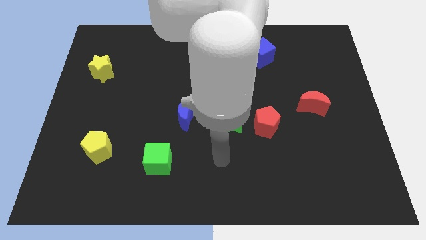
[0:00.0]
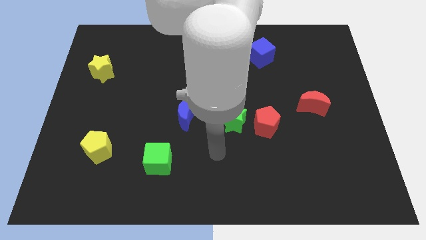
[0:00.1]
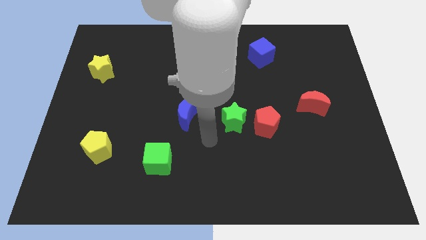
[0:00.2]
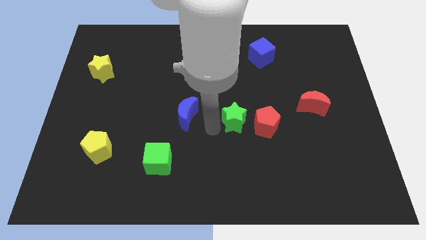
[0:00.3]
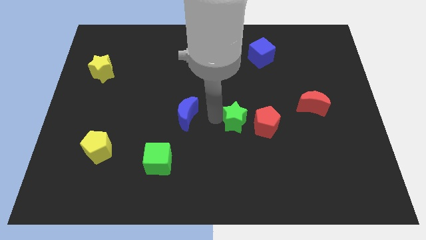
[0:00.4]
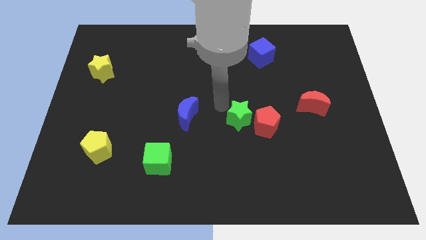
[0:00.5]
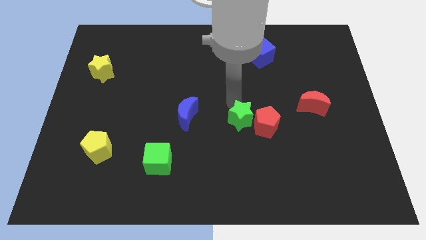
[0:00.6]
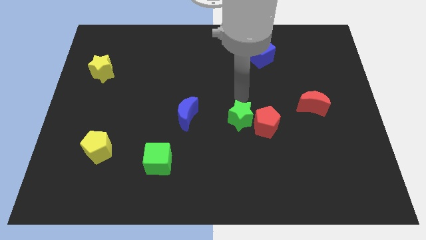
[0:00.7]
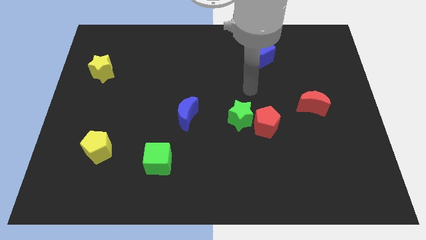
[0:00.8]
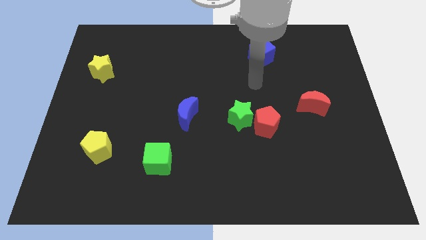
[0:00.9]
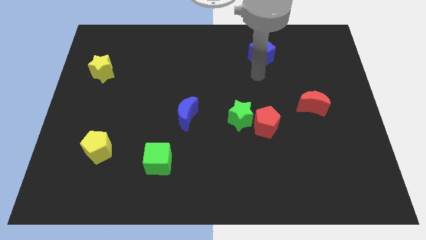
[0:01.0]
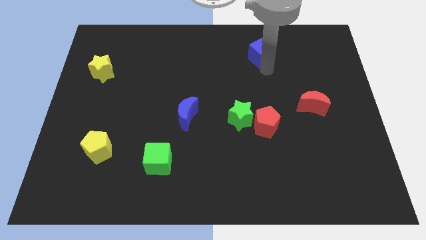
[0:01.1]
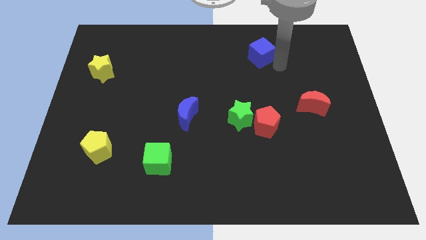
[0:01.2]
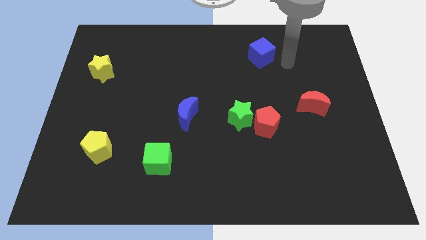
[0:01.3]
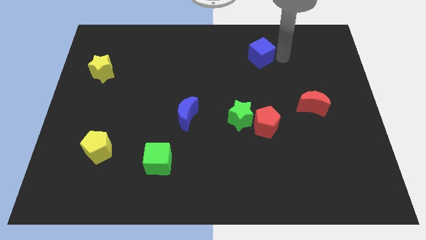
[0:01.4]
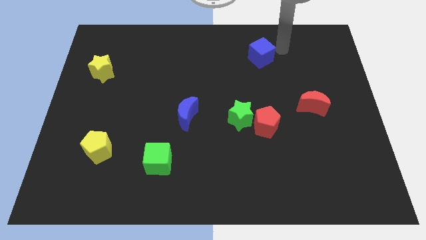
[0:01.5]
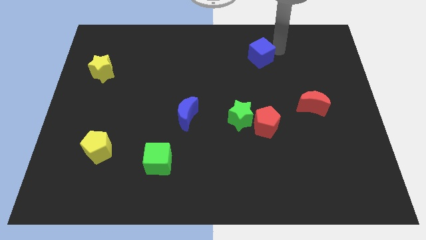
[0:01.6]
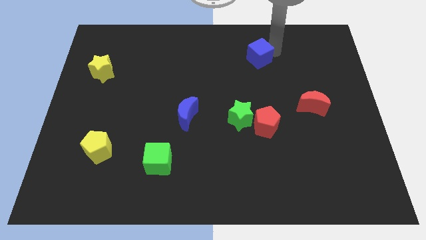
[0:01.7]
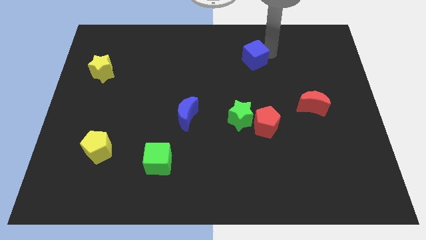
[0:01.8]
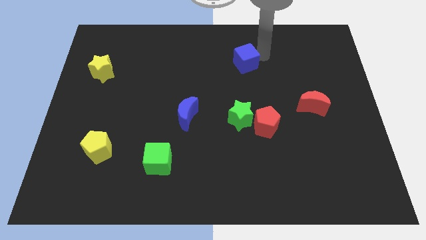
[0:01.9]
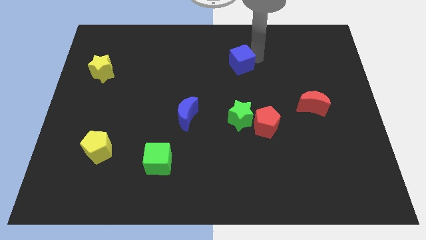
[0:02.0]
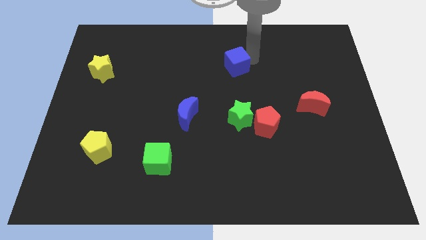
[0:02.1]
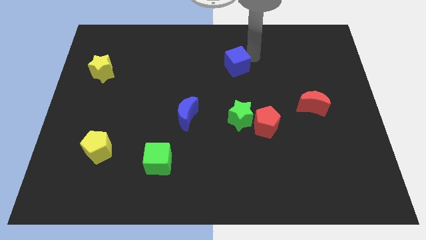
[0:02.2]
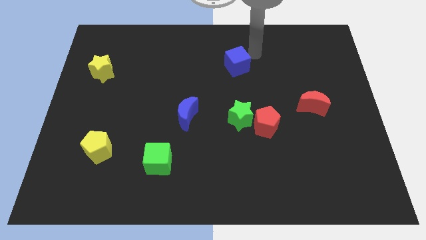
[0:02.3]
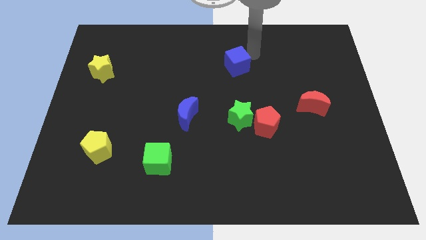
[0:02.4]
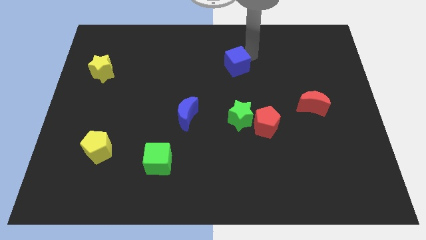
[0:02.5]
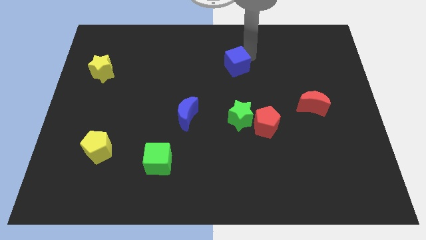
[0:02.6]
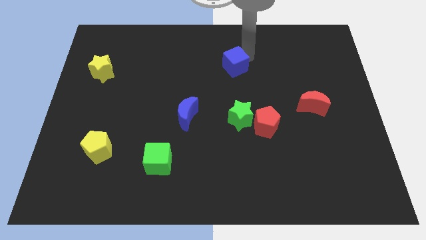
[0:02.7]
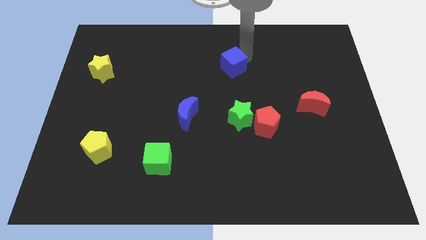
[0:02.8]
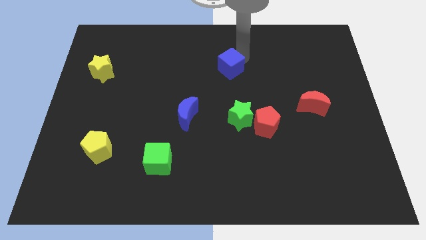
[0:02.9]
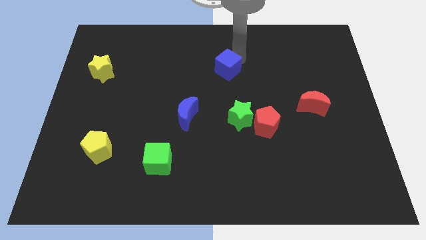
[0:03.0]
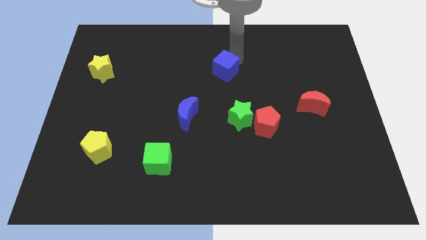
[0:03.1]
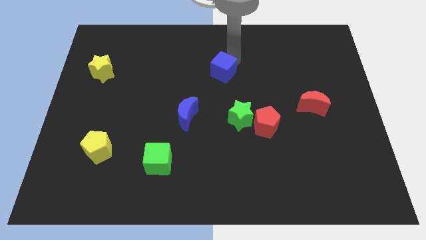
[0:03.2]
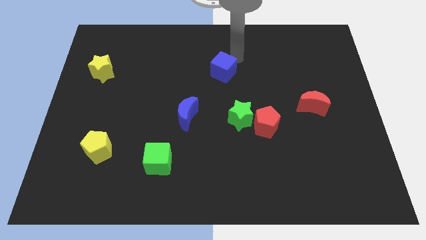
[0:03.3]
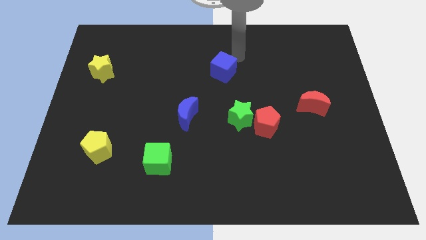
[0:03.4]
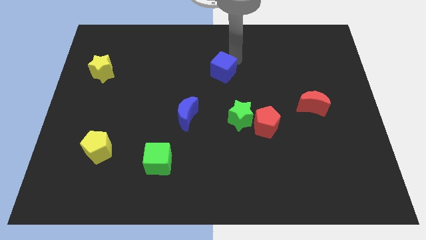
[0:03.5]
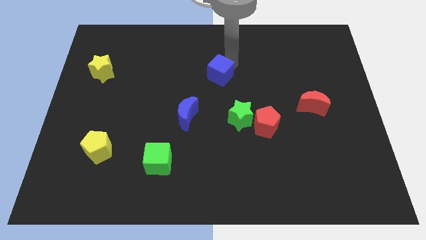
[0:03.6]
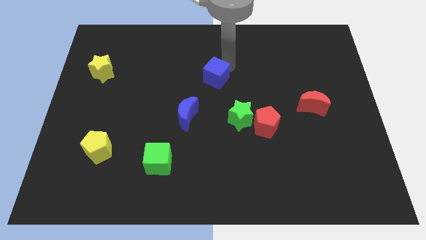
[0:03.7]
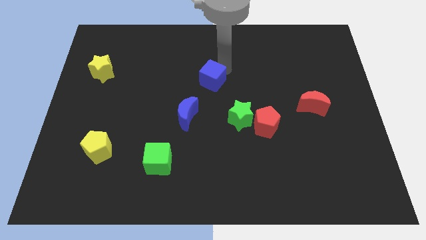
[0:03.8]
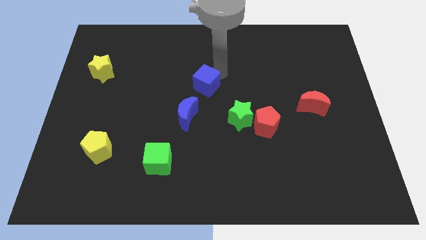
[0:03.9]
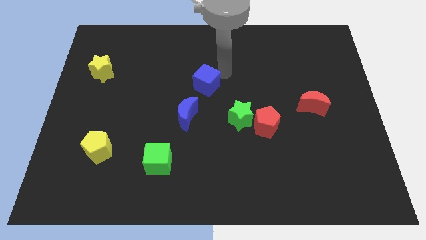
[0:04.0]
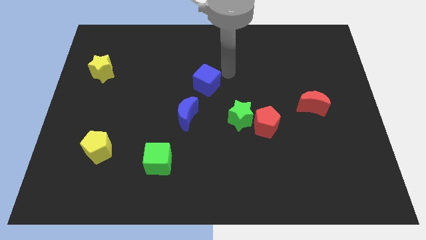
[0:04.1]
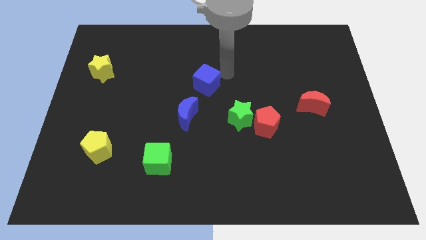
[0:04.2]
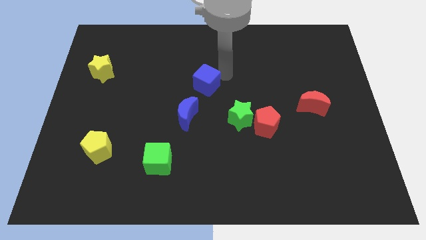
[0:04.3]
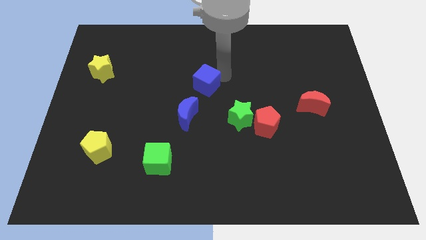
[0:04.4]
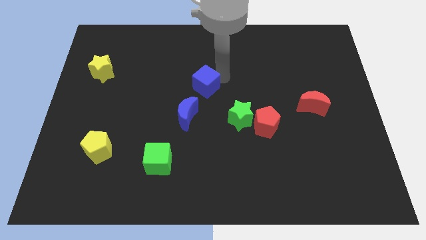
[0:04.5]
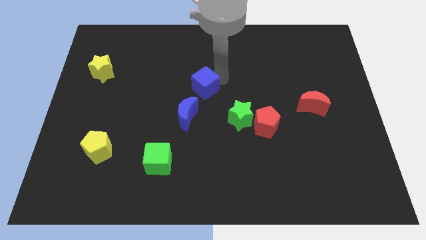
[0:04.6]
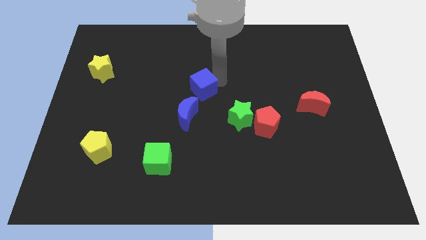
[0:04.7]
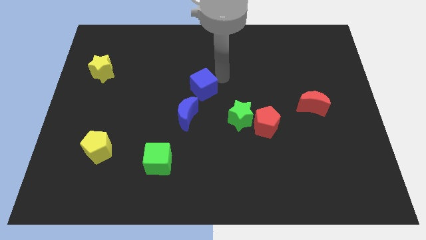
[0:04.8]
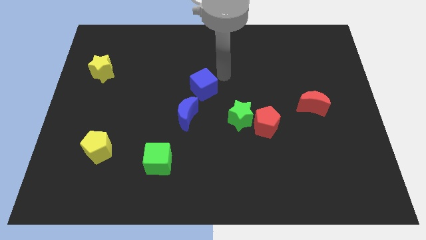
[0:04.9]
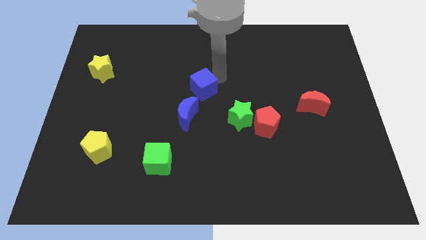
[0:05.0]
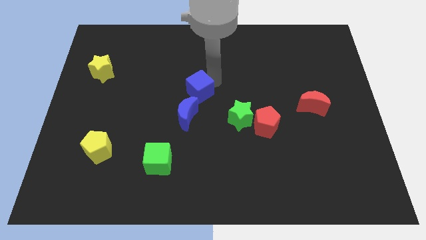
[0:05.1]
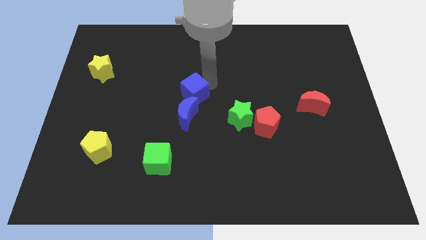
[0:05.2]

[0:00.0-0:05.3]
push the blue cube diagonally down and left

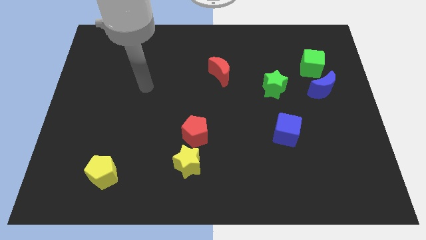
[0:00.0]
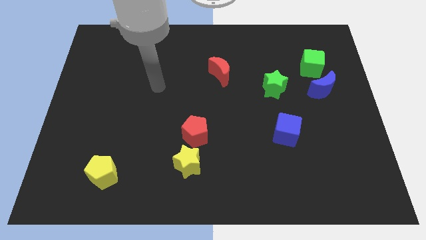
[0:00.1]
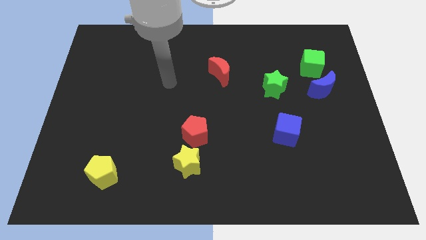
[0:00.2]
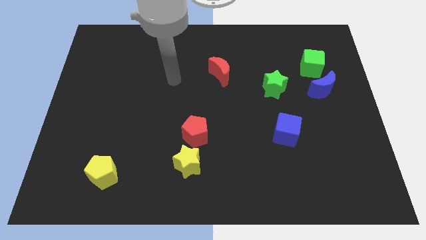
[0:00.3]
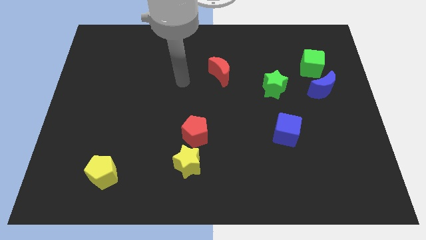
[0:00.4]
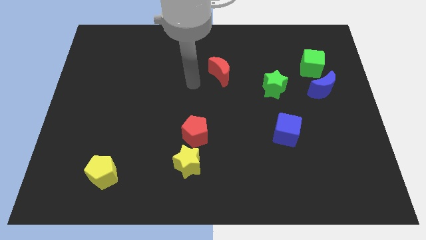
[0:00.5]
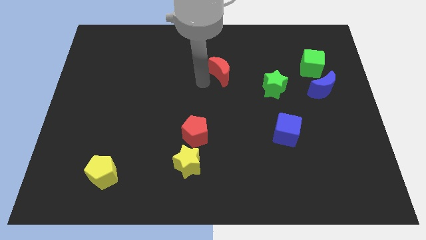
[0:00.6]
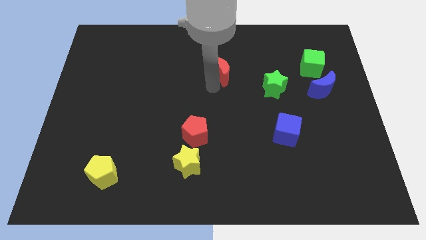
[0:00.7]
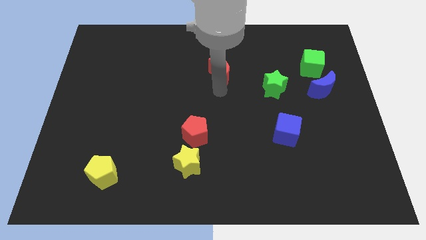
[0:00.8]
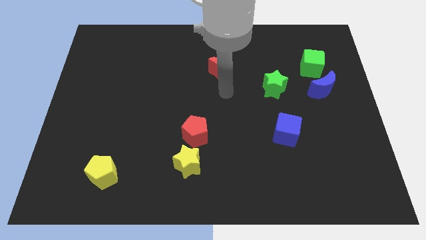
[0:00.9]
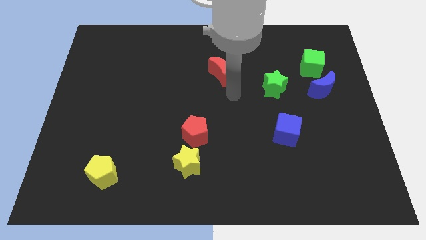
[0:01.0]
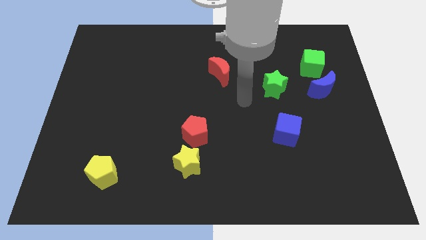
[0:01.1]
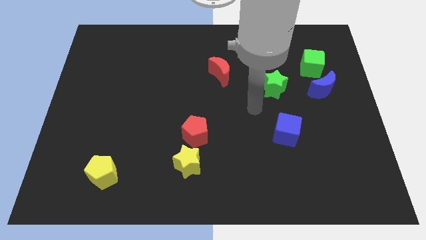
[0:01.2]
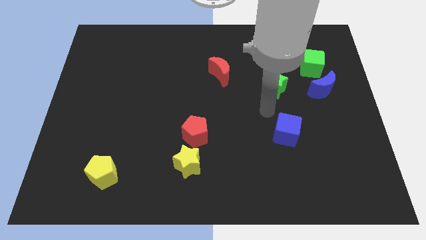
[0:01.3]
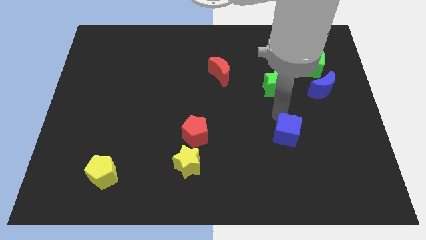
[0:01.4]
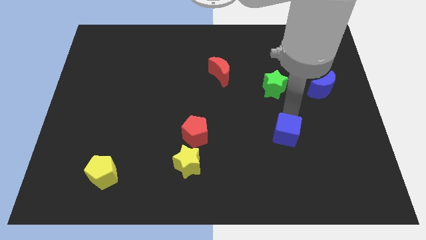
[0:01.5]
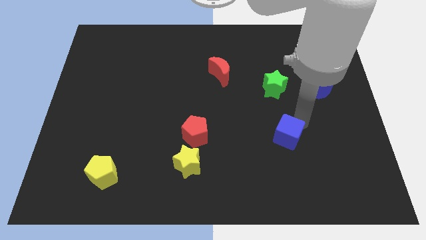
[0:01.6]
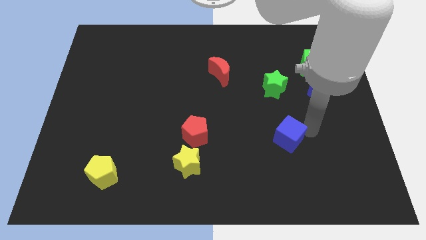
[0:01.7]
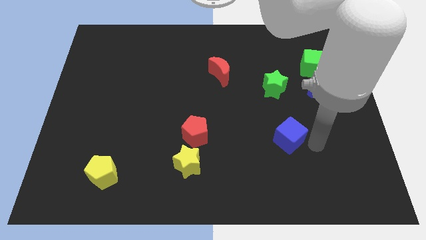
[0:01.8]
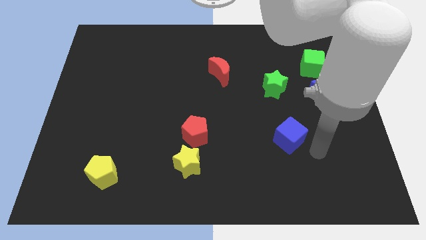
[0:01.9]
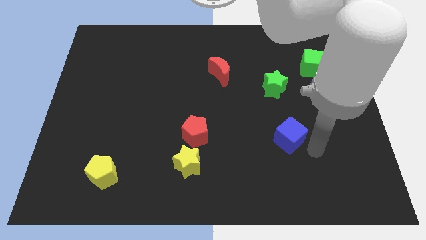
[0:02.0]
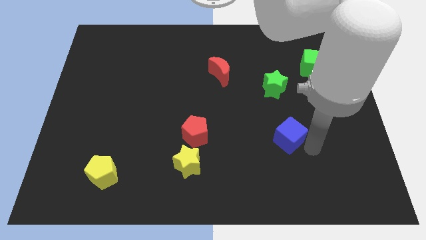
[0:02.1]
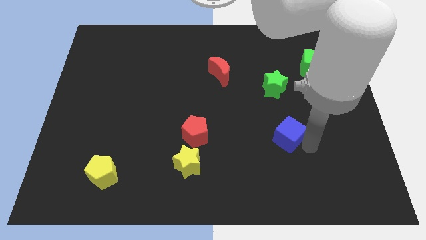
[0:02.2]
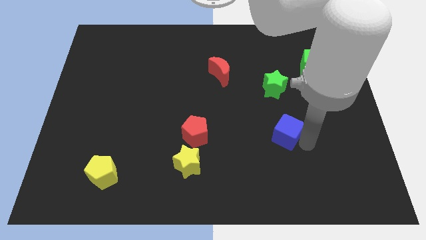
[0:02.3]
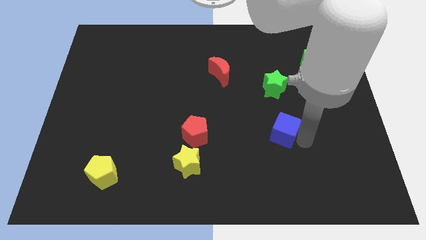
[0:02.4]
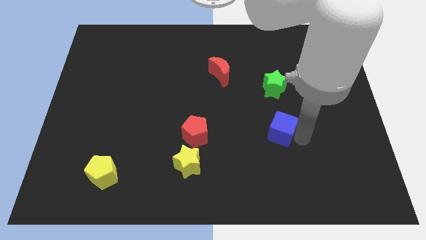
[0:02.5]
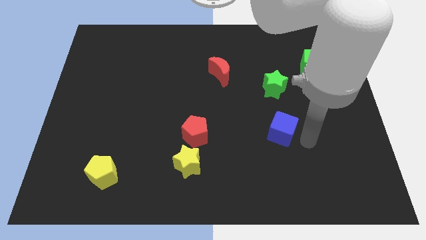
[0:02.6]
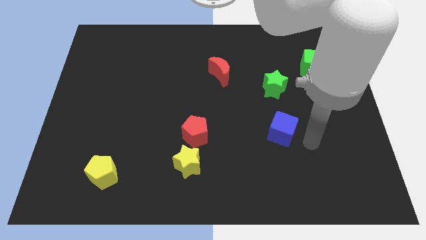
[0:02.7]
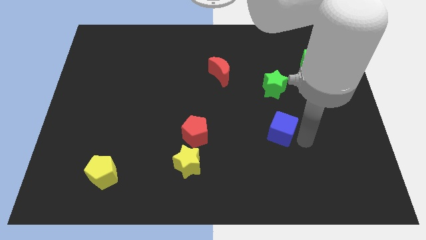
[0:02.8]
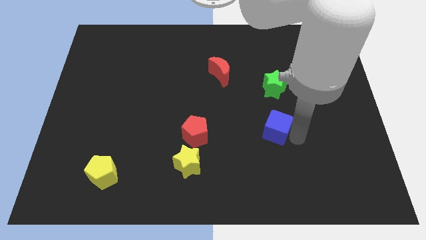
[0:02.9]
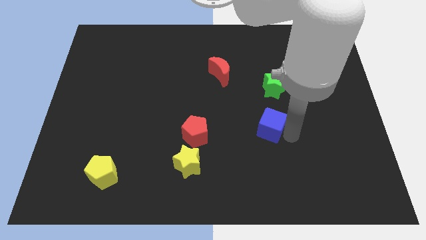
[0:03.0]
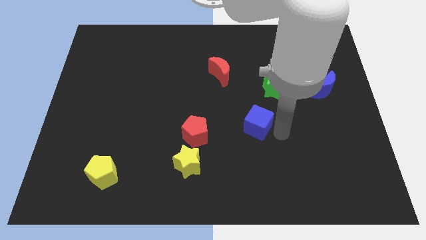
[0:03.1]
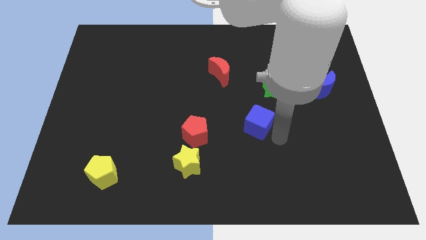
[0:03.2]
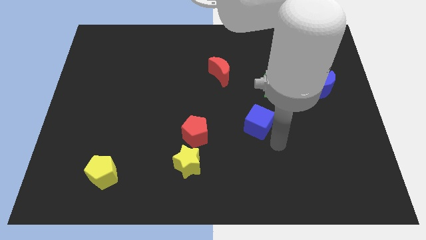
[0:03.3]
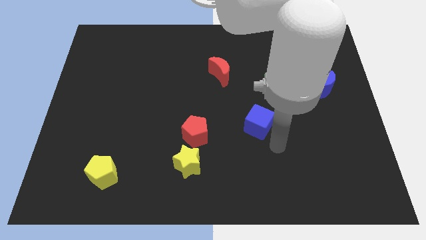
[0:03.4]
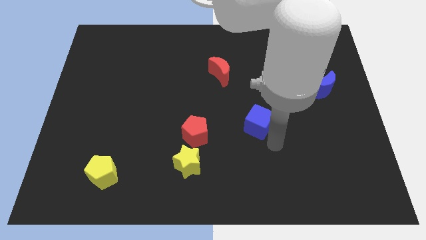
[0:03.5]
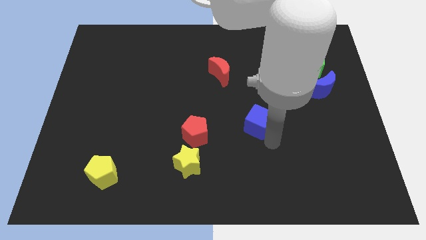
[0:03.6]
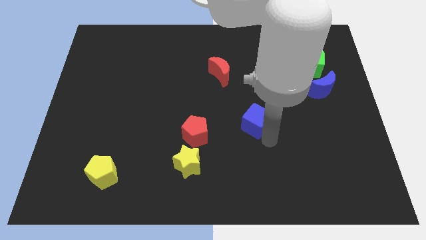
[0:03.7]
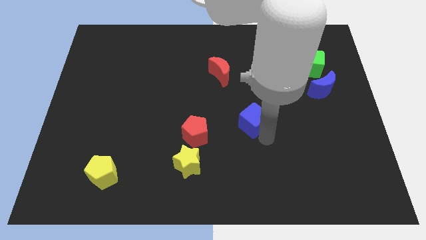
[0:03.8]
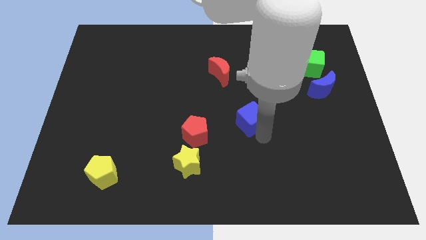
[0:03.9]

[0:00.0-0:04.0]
push the blue cube a bit up and then left
